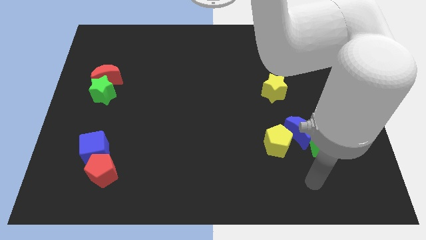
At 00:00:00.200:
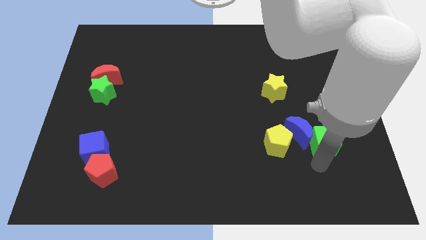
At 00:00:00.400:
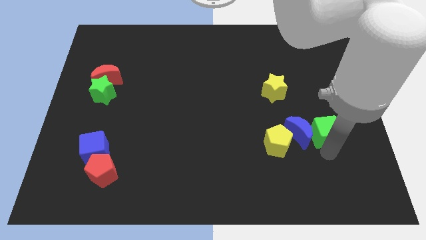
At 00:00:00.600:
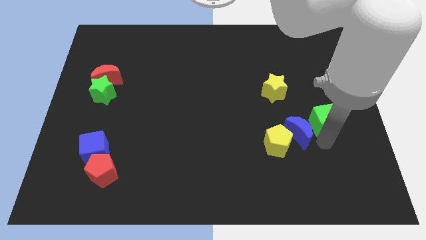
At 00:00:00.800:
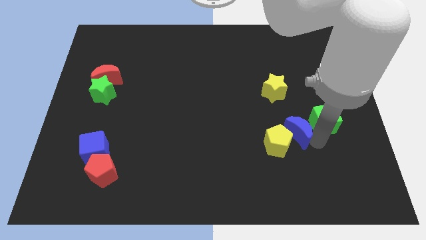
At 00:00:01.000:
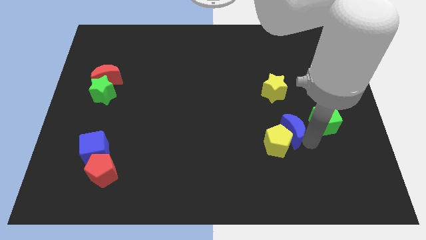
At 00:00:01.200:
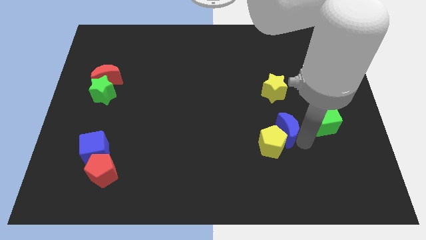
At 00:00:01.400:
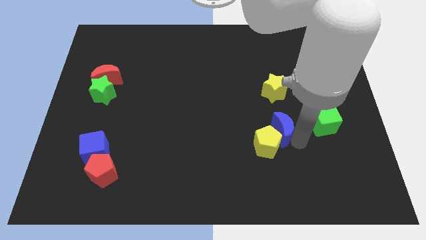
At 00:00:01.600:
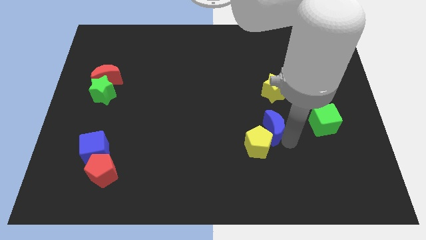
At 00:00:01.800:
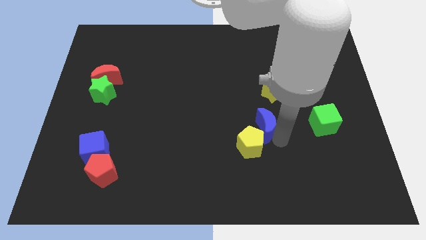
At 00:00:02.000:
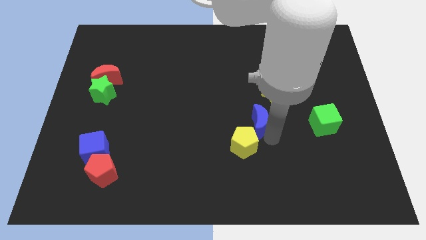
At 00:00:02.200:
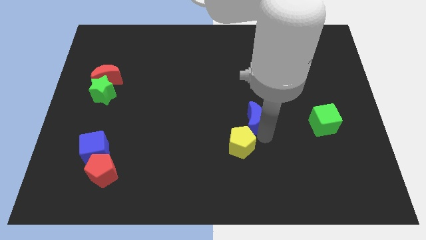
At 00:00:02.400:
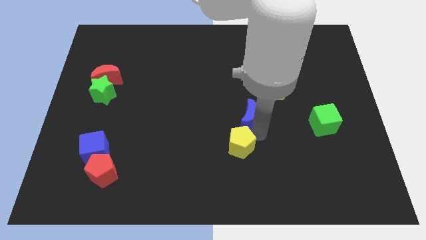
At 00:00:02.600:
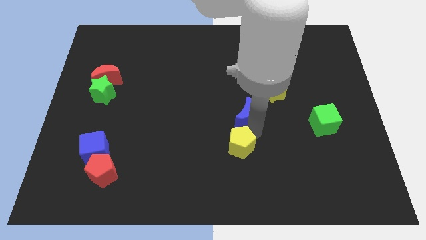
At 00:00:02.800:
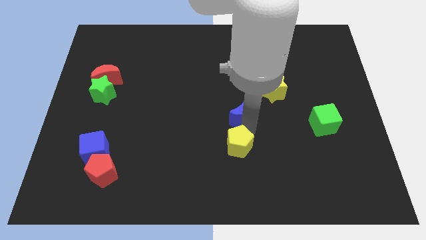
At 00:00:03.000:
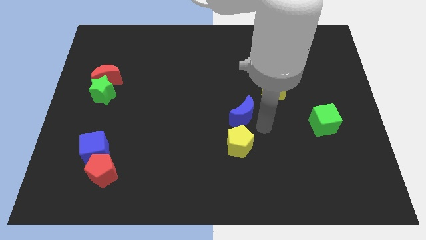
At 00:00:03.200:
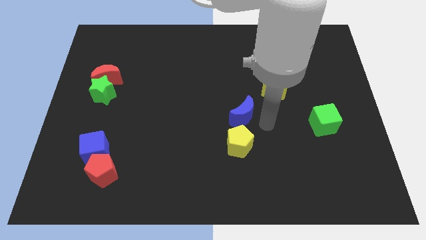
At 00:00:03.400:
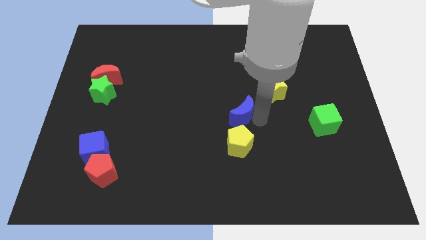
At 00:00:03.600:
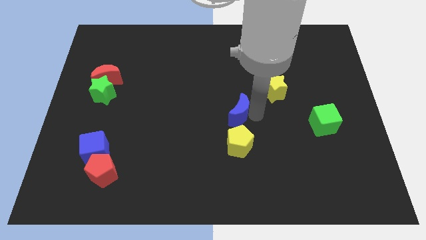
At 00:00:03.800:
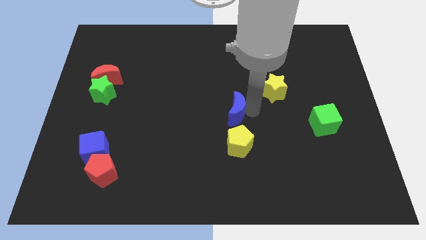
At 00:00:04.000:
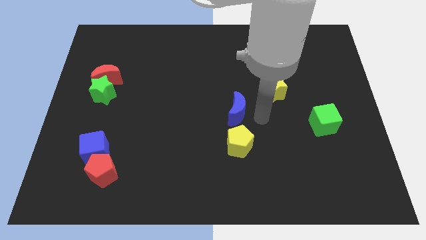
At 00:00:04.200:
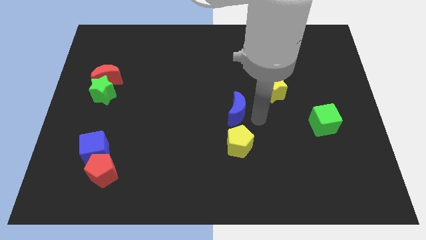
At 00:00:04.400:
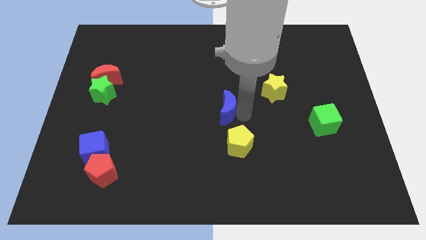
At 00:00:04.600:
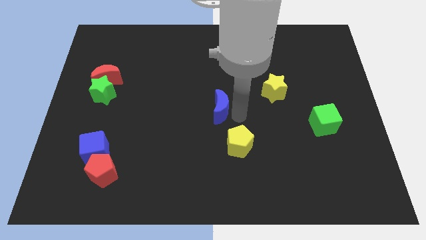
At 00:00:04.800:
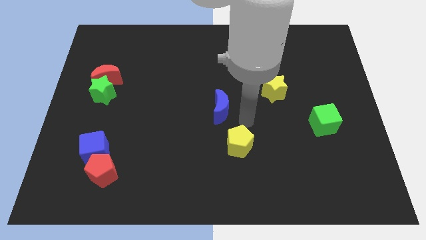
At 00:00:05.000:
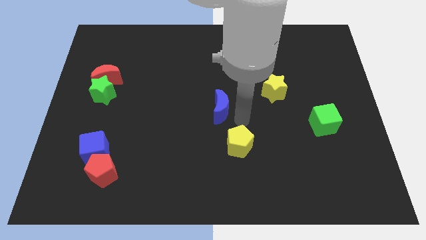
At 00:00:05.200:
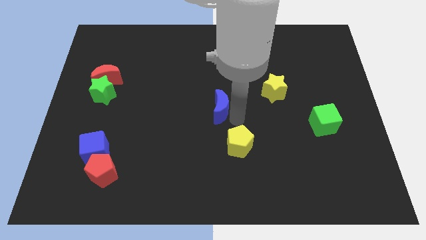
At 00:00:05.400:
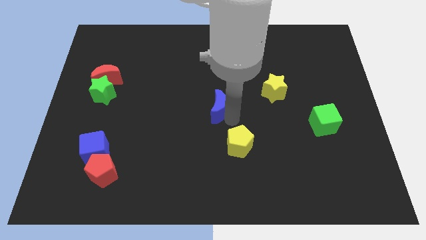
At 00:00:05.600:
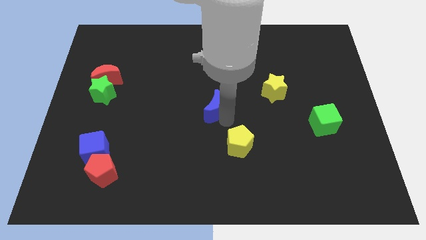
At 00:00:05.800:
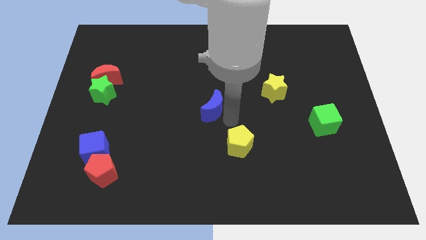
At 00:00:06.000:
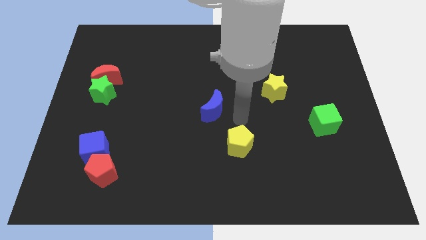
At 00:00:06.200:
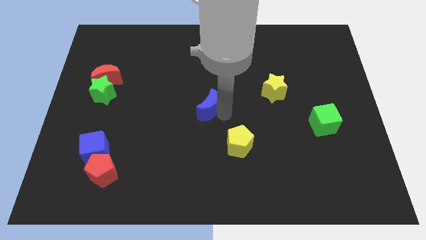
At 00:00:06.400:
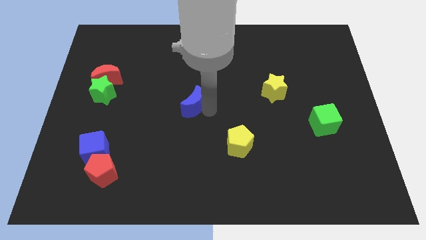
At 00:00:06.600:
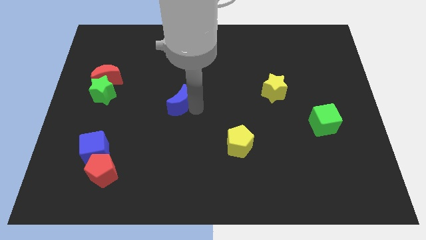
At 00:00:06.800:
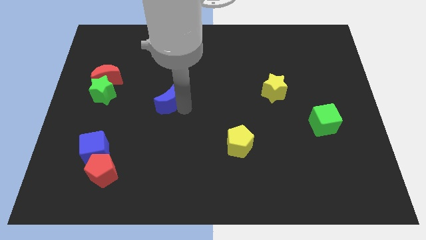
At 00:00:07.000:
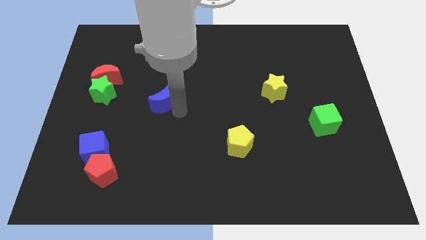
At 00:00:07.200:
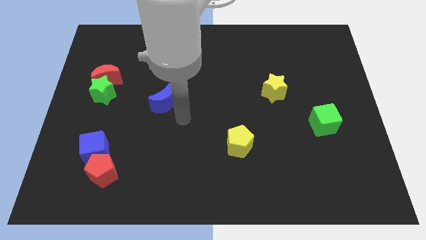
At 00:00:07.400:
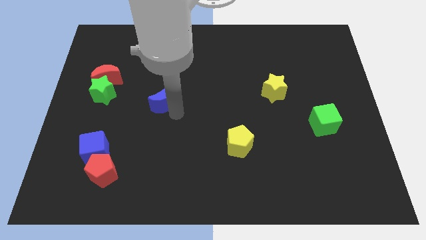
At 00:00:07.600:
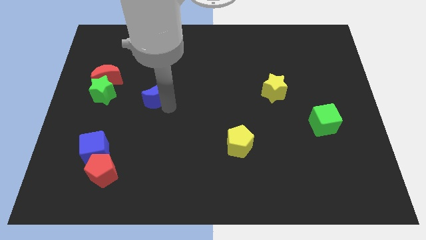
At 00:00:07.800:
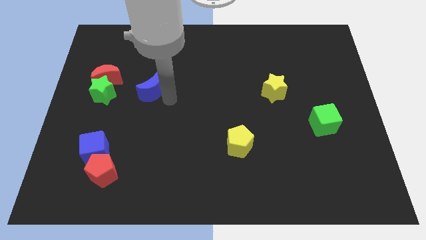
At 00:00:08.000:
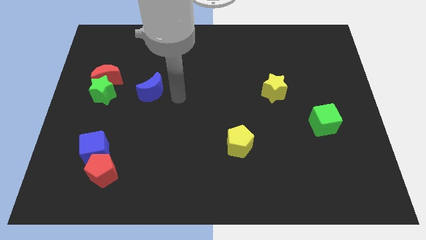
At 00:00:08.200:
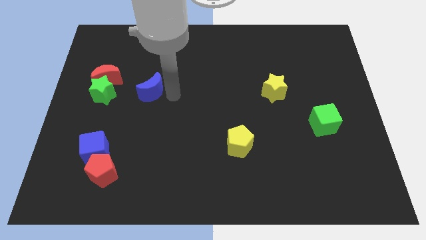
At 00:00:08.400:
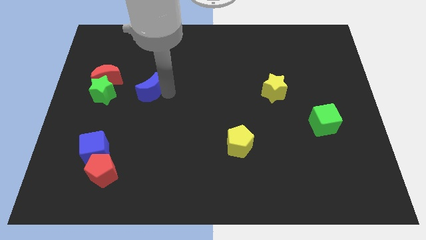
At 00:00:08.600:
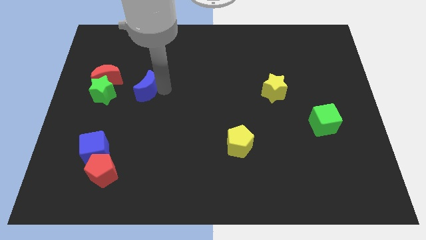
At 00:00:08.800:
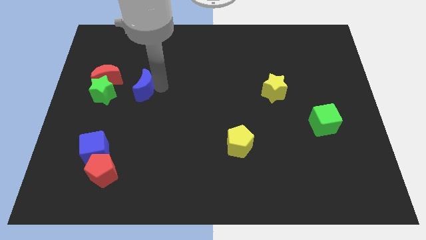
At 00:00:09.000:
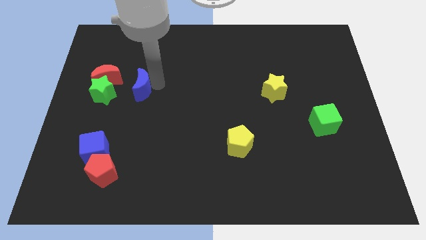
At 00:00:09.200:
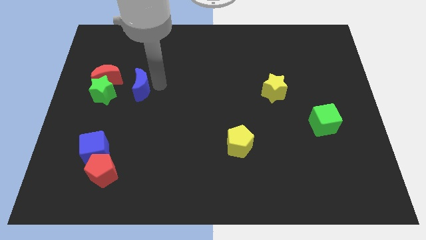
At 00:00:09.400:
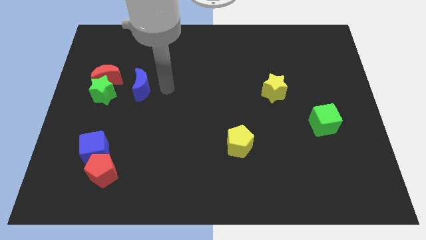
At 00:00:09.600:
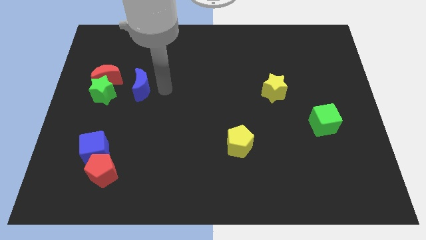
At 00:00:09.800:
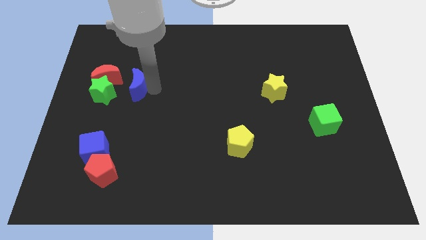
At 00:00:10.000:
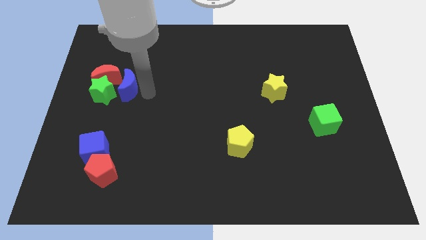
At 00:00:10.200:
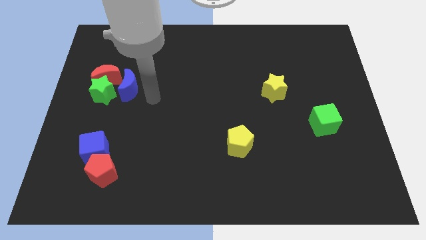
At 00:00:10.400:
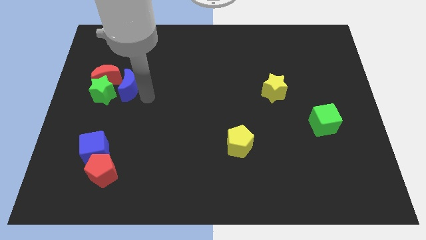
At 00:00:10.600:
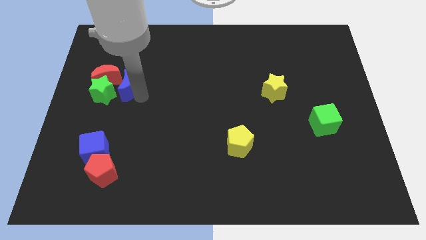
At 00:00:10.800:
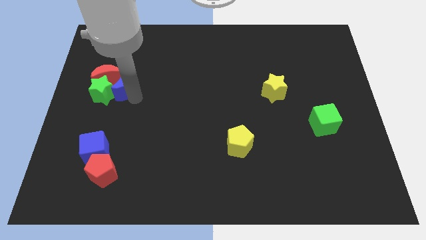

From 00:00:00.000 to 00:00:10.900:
slide the blue moon next to the red moon

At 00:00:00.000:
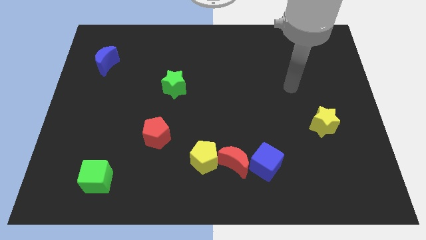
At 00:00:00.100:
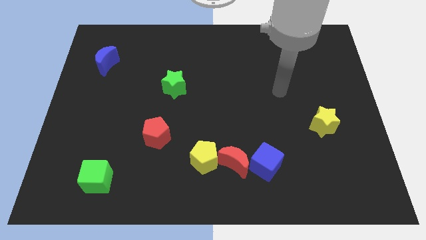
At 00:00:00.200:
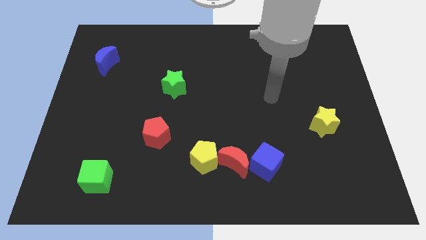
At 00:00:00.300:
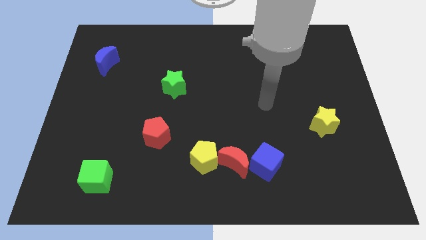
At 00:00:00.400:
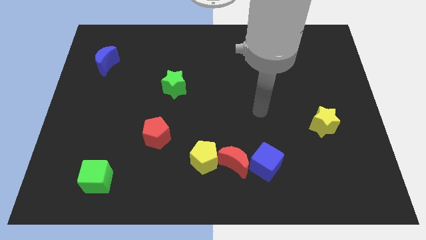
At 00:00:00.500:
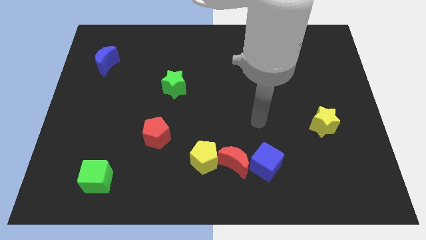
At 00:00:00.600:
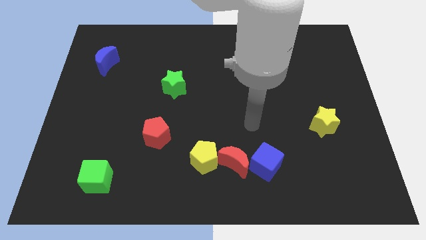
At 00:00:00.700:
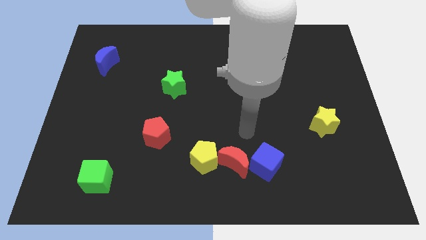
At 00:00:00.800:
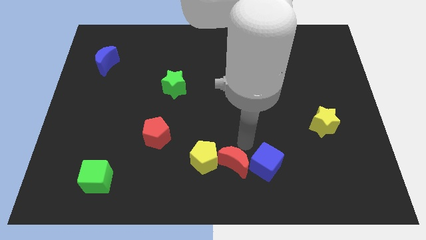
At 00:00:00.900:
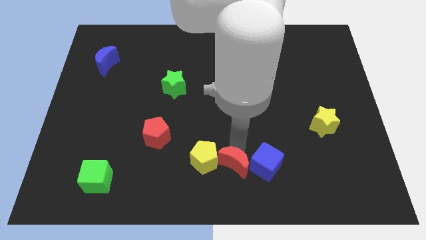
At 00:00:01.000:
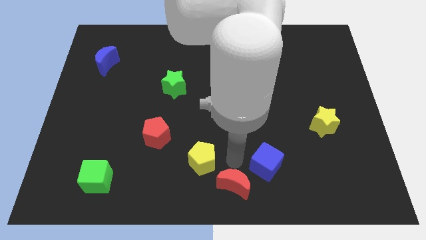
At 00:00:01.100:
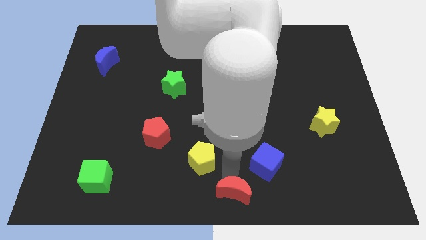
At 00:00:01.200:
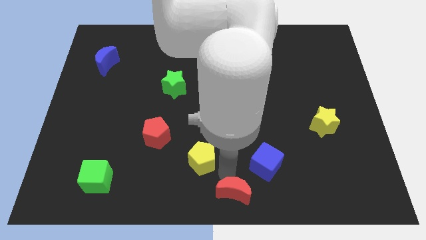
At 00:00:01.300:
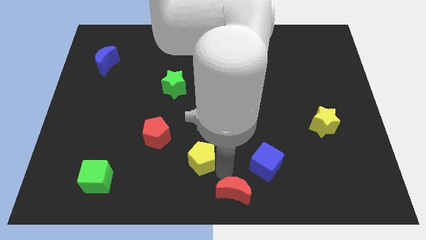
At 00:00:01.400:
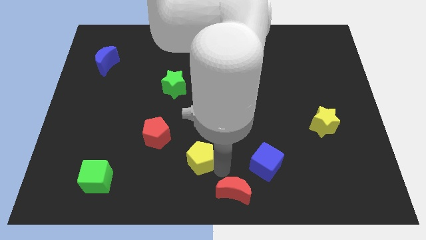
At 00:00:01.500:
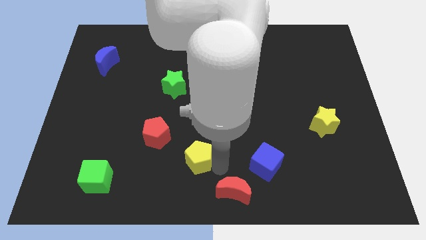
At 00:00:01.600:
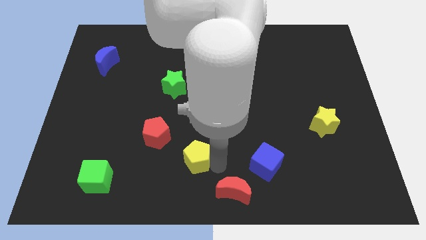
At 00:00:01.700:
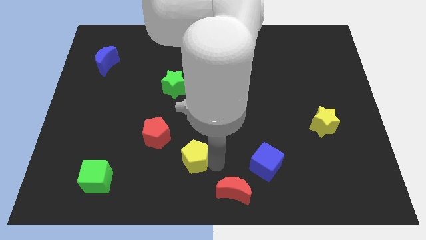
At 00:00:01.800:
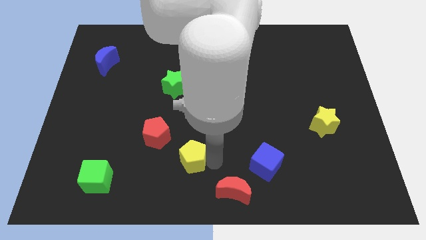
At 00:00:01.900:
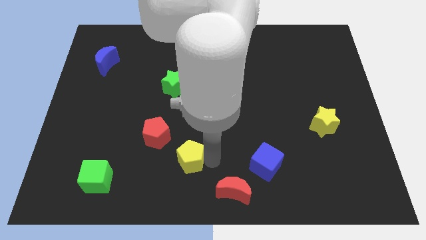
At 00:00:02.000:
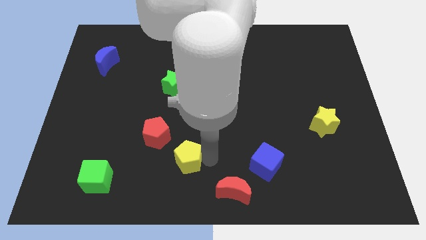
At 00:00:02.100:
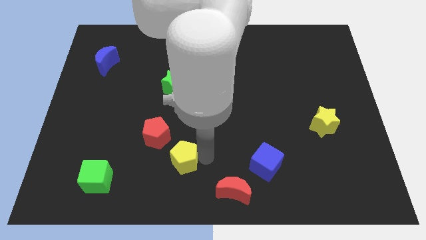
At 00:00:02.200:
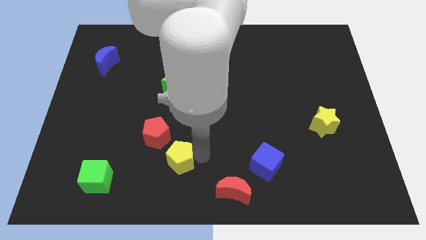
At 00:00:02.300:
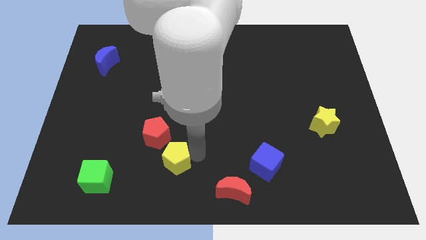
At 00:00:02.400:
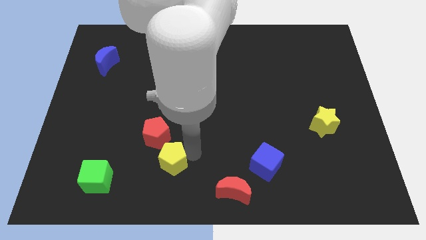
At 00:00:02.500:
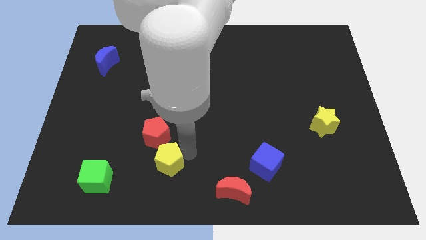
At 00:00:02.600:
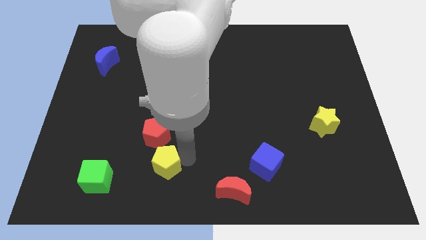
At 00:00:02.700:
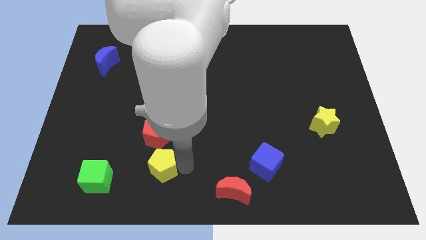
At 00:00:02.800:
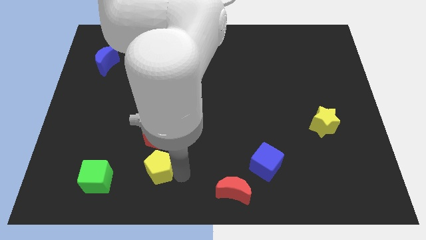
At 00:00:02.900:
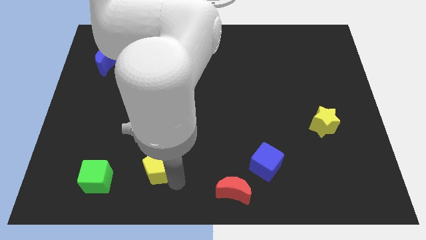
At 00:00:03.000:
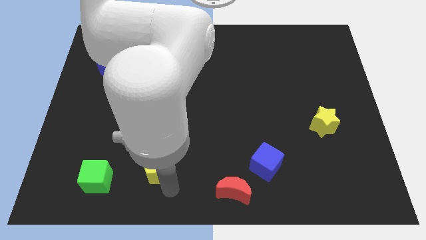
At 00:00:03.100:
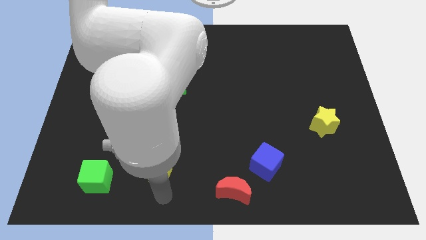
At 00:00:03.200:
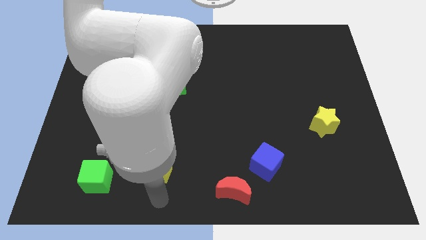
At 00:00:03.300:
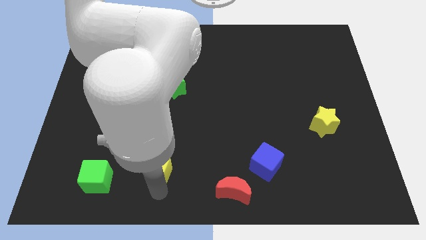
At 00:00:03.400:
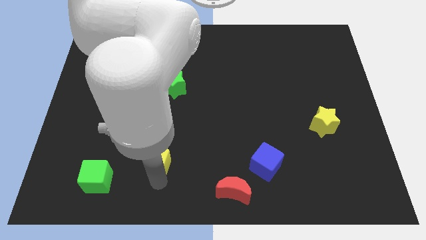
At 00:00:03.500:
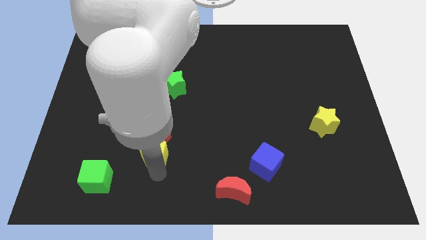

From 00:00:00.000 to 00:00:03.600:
put the yellow pentagon next to the red pentagon
